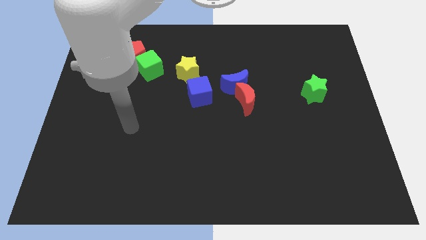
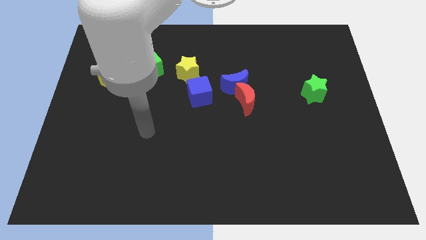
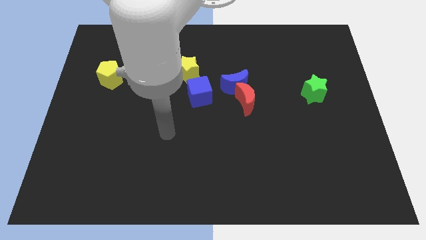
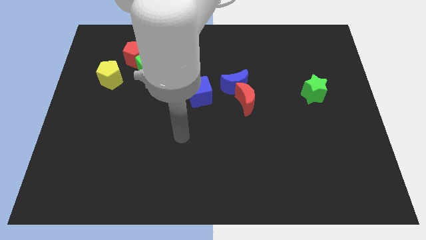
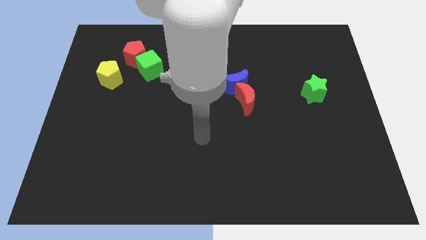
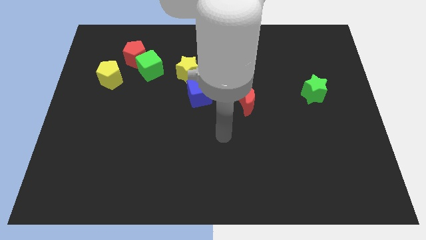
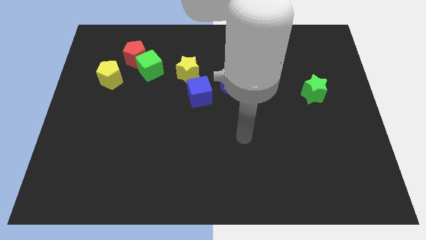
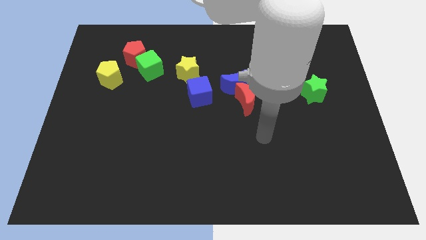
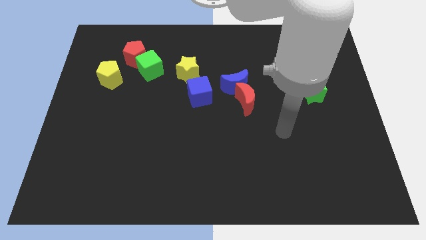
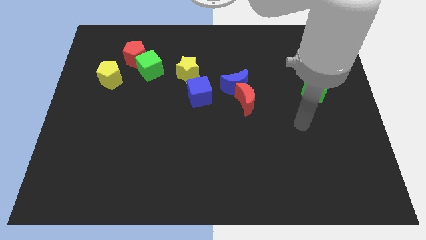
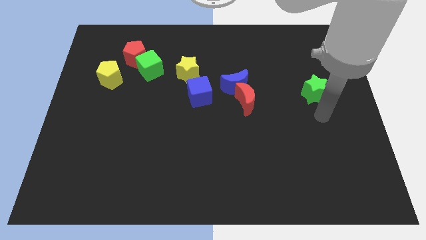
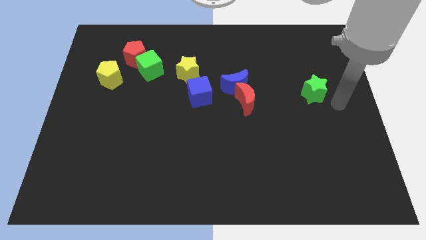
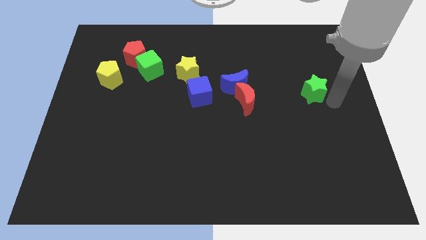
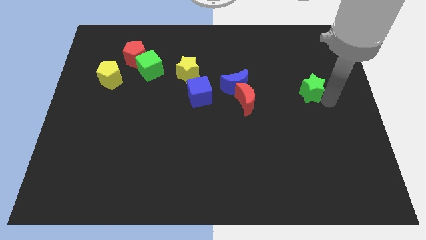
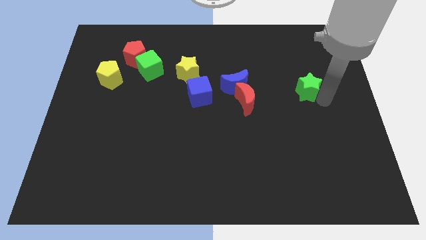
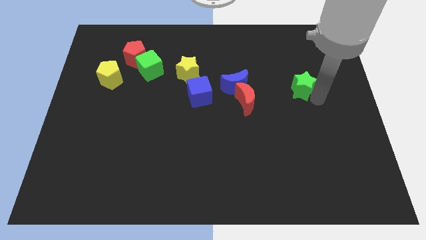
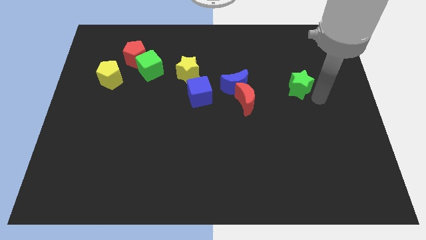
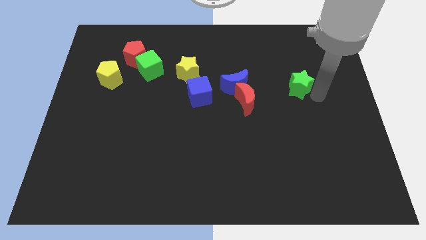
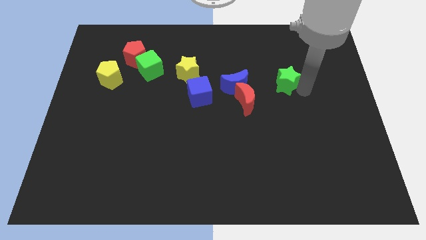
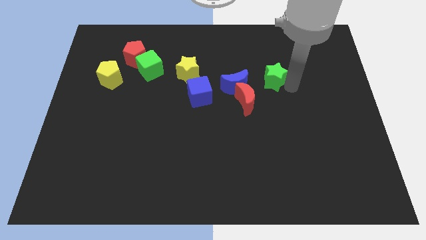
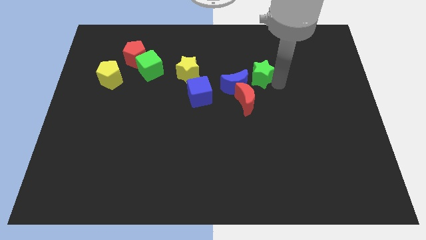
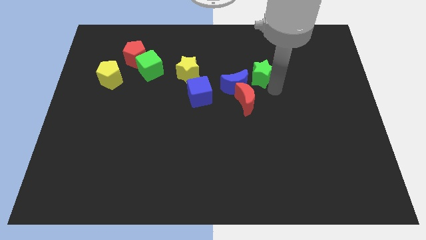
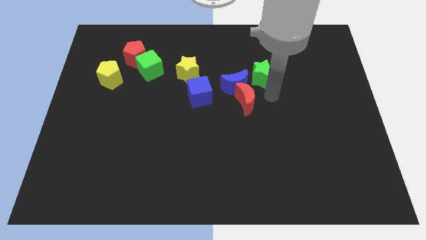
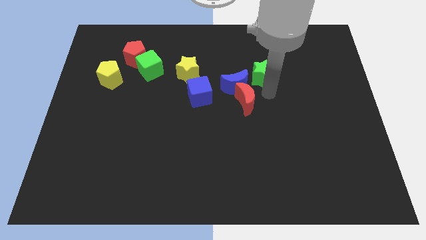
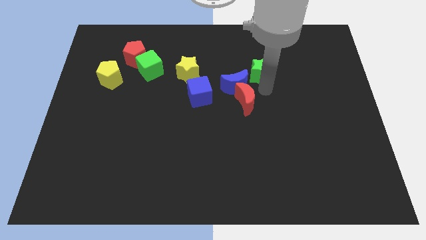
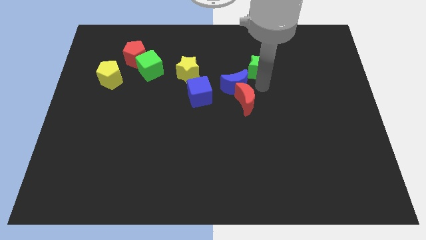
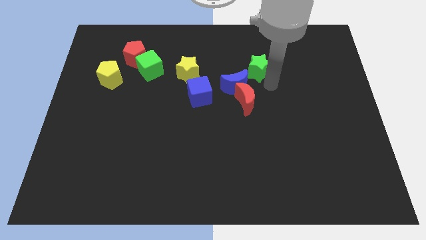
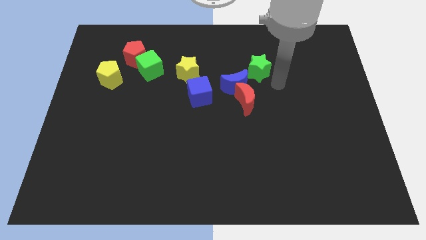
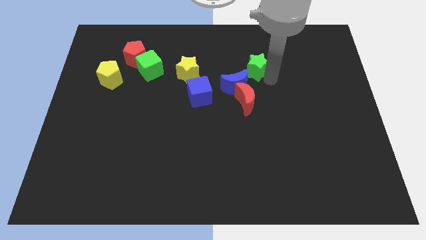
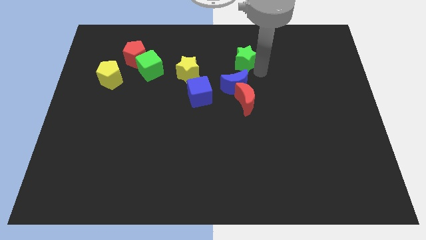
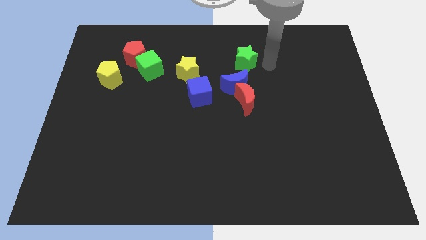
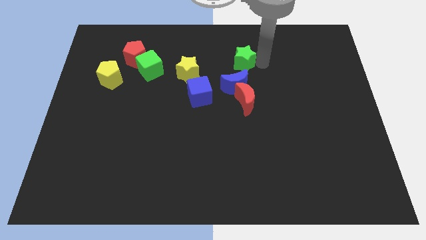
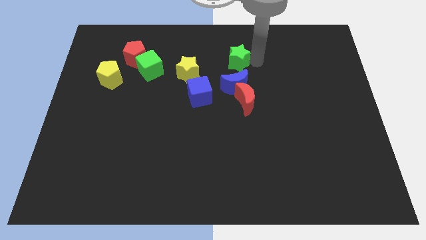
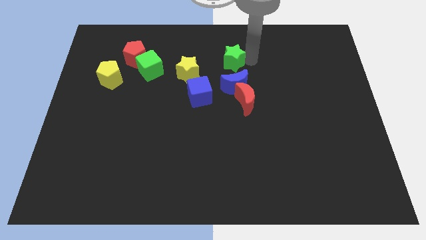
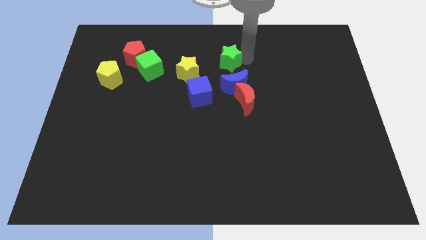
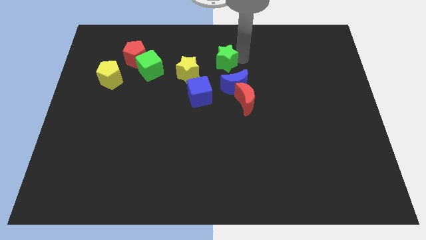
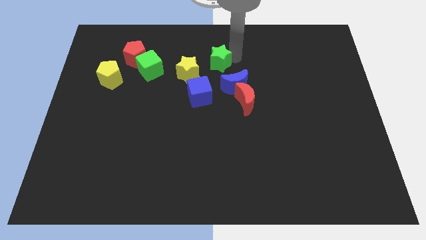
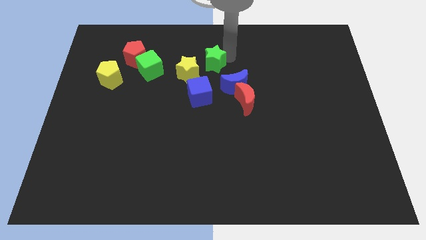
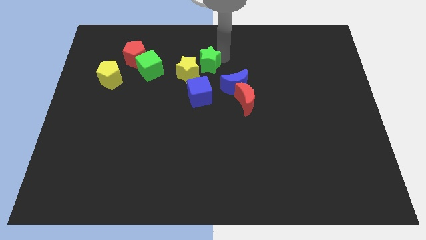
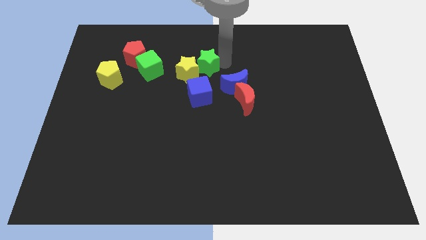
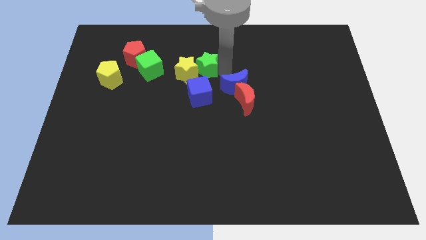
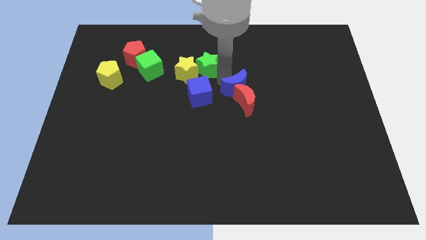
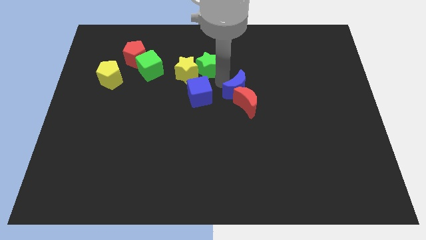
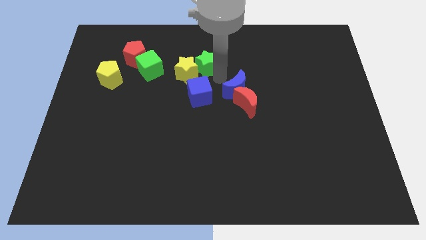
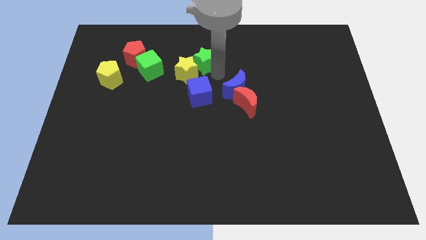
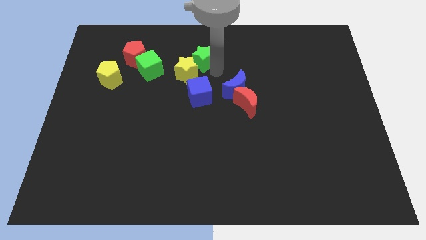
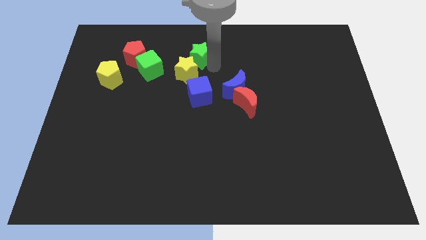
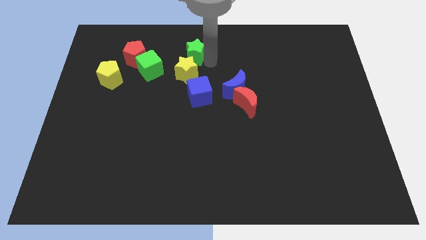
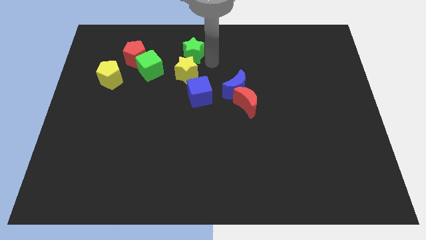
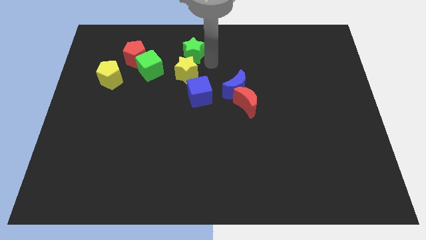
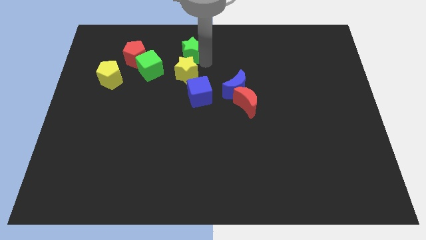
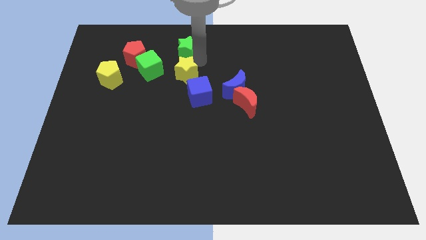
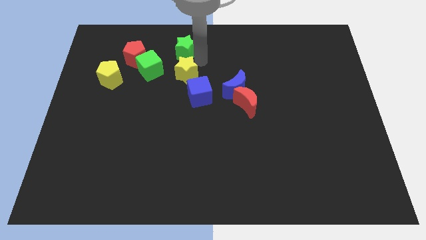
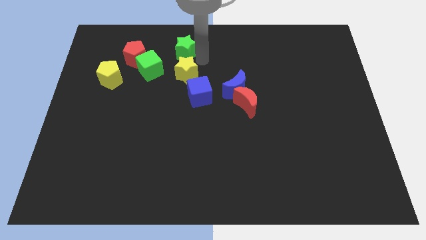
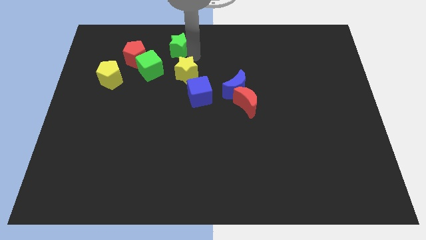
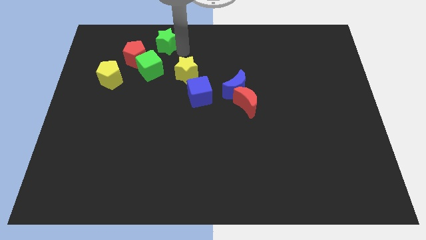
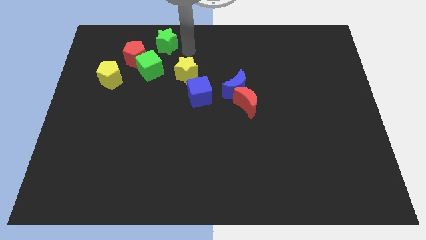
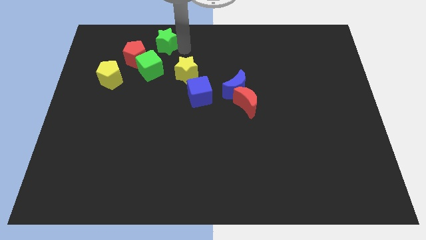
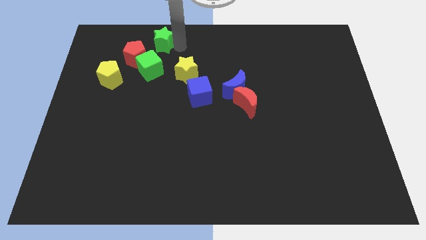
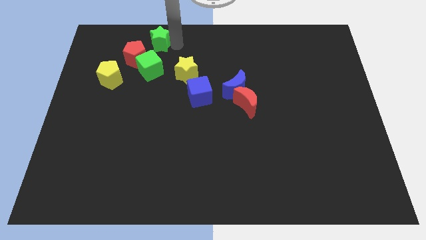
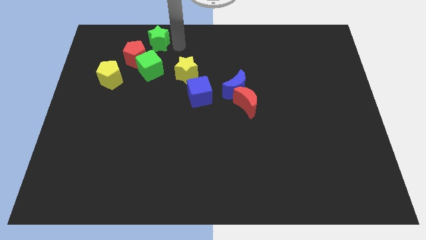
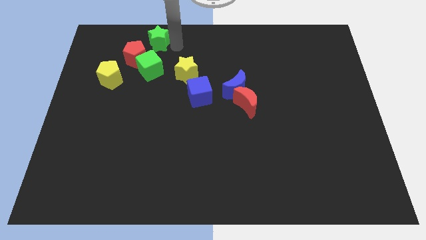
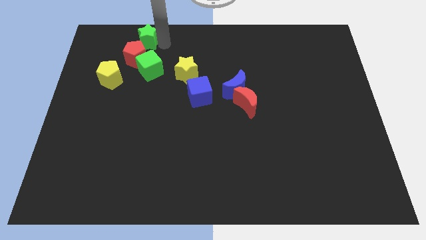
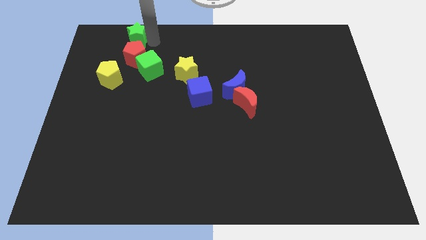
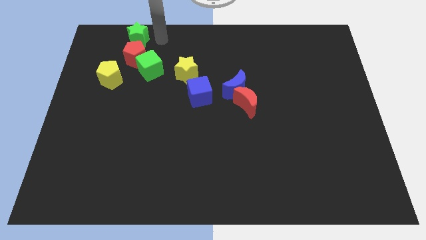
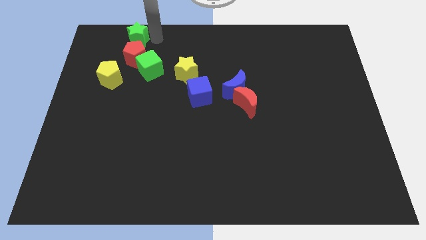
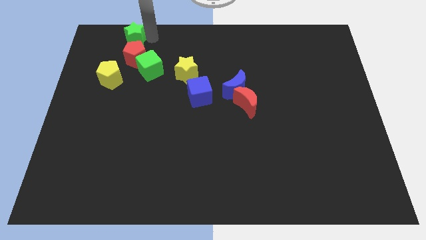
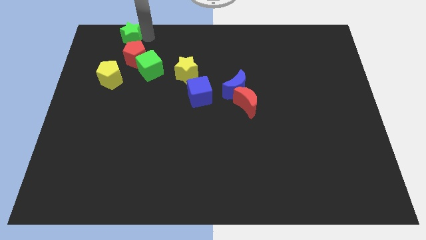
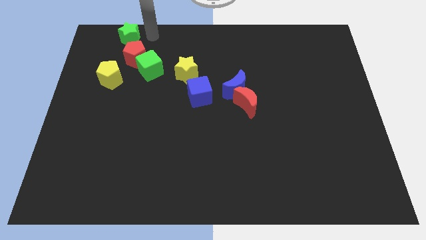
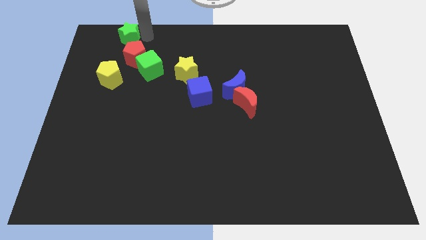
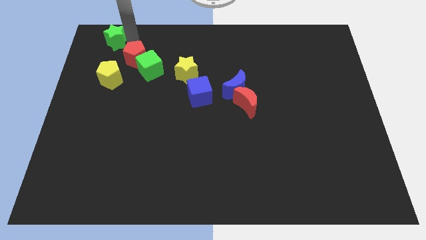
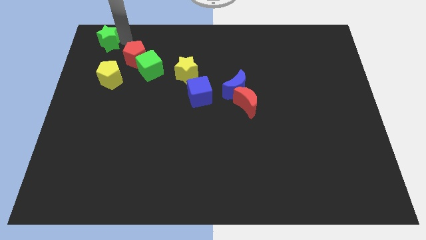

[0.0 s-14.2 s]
slide the green star to the upper left corner
